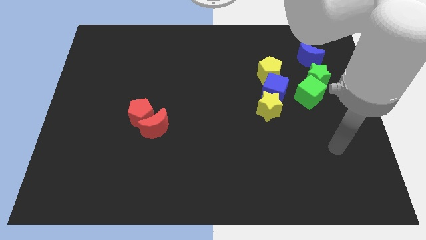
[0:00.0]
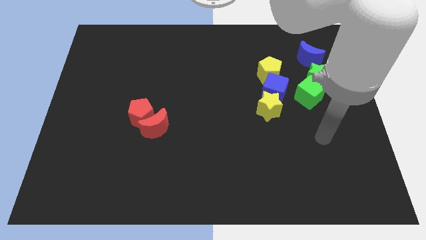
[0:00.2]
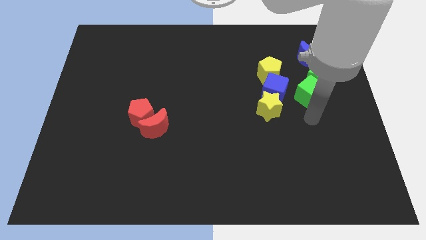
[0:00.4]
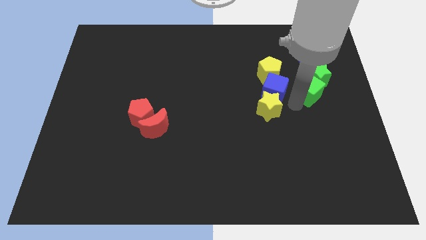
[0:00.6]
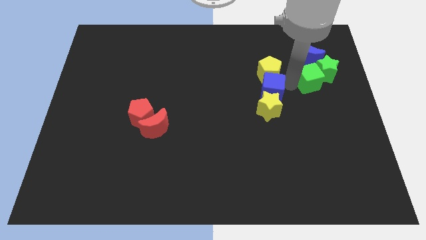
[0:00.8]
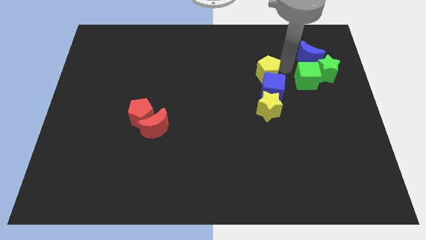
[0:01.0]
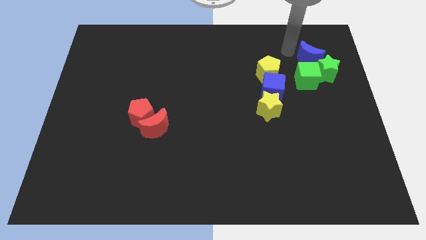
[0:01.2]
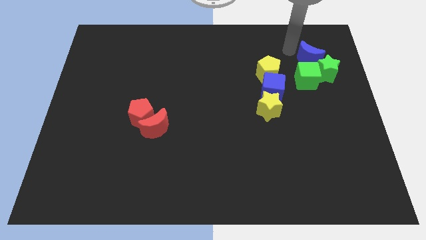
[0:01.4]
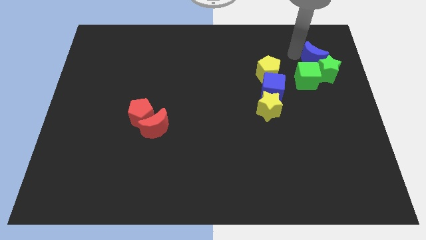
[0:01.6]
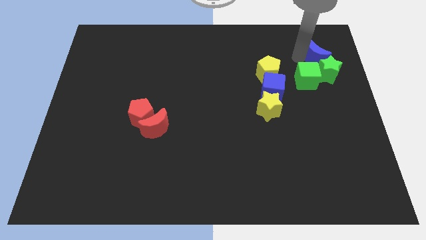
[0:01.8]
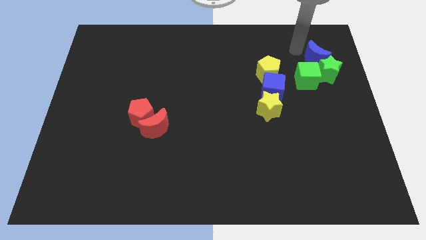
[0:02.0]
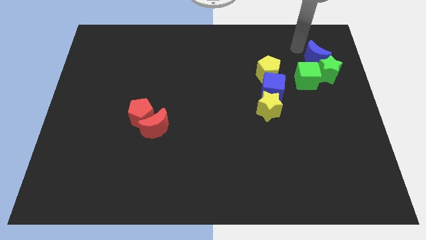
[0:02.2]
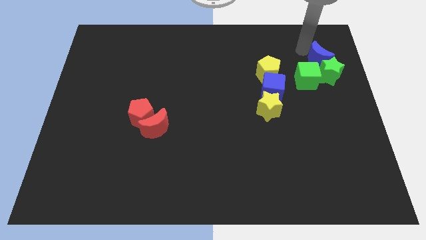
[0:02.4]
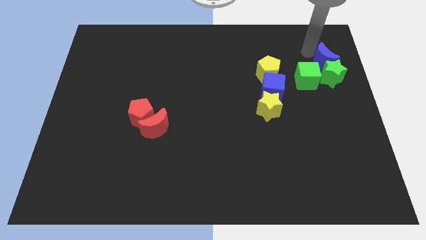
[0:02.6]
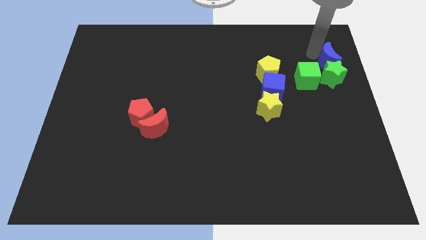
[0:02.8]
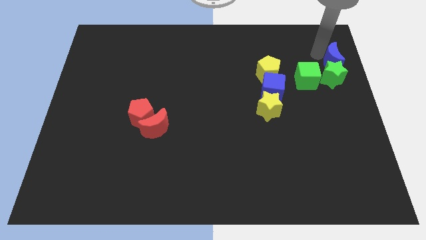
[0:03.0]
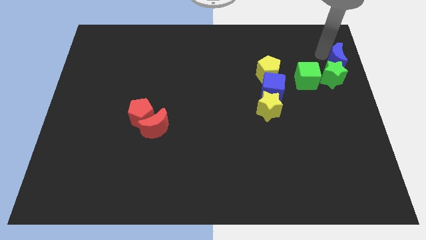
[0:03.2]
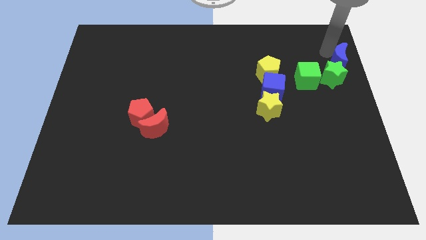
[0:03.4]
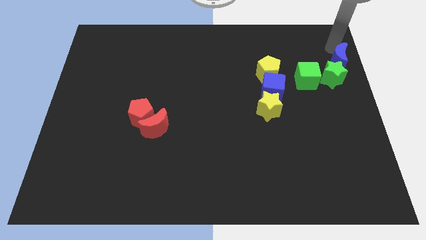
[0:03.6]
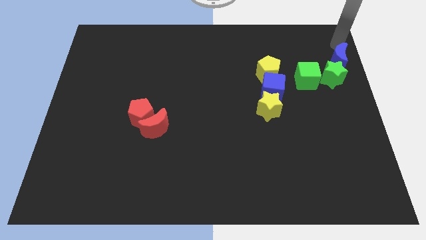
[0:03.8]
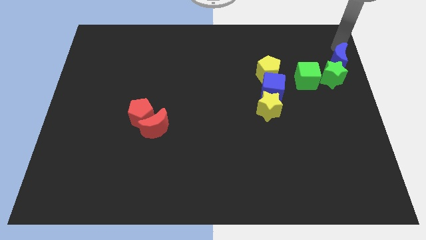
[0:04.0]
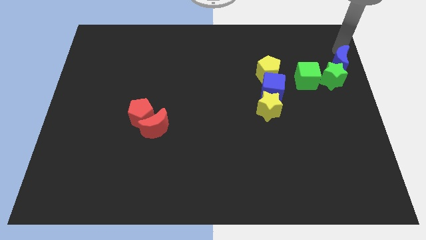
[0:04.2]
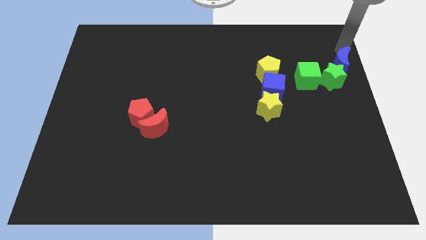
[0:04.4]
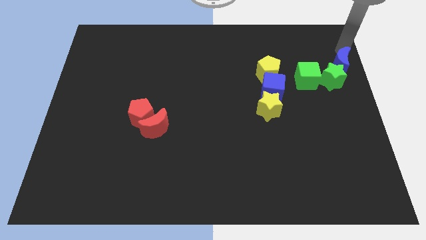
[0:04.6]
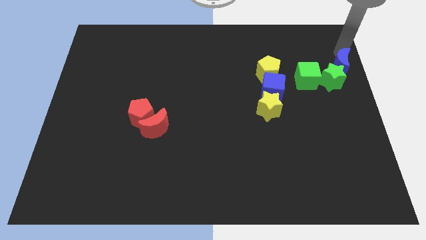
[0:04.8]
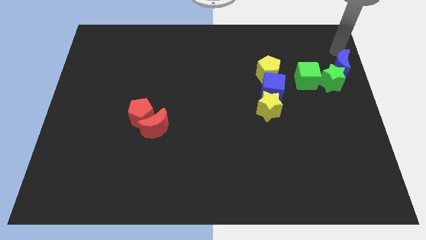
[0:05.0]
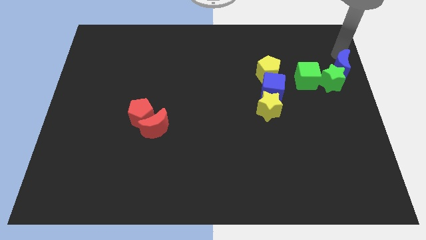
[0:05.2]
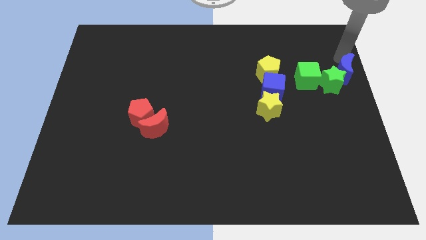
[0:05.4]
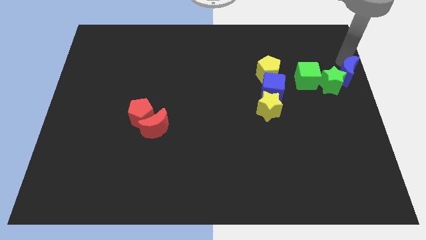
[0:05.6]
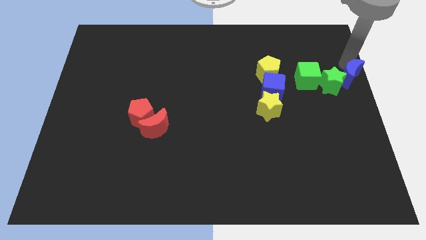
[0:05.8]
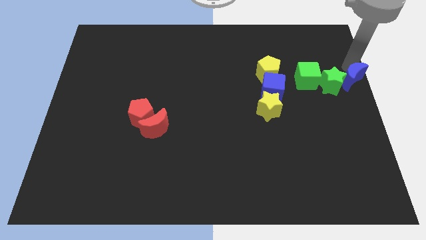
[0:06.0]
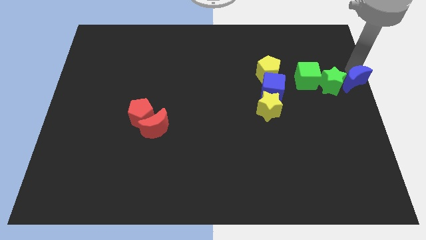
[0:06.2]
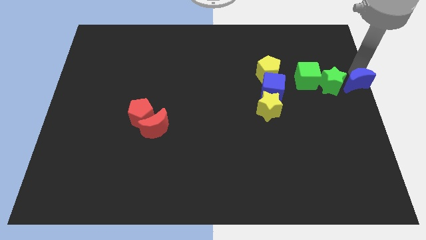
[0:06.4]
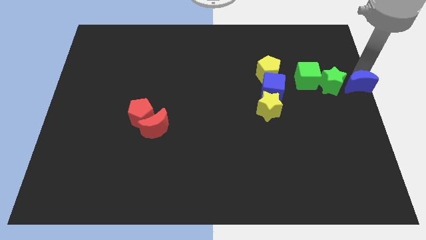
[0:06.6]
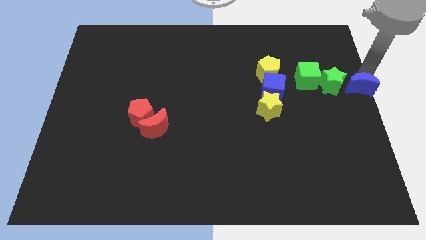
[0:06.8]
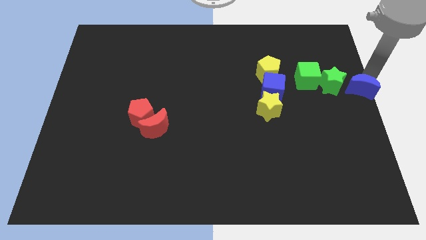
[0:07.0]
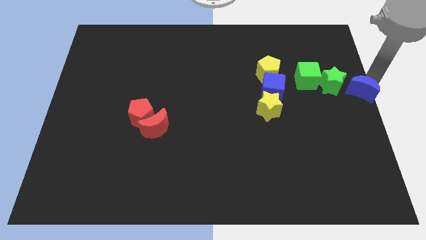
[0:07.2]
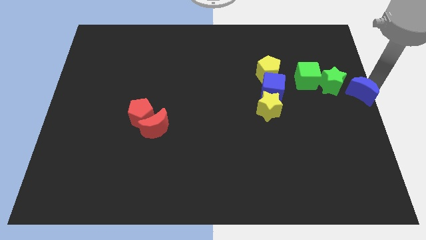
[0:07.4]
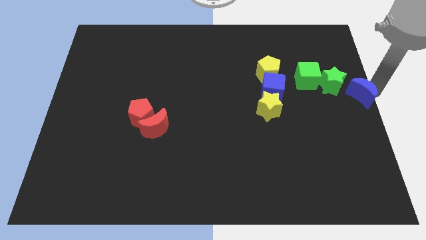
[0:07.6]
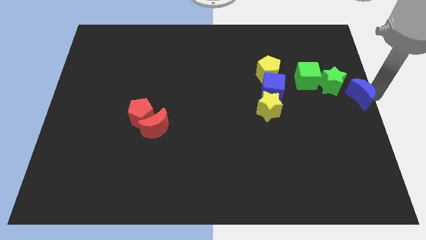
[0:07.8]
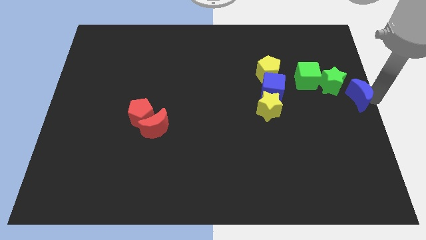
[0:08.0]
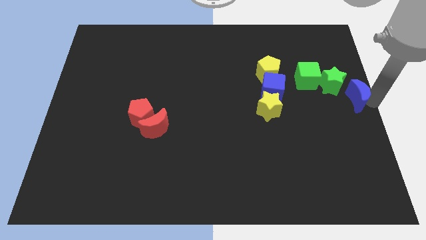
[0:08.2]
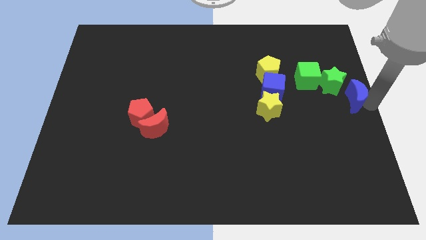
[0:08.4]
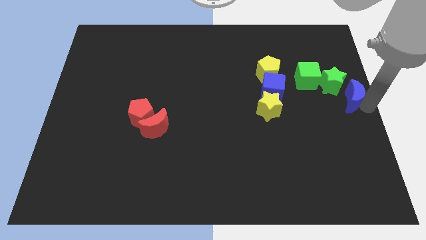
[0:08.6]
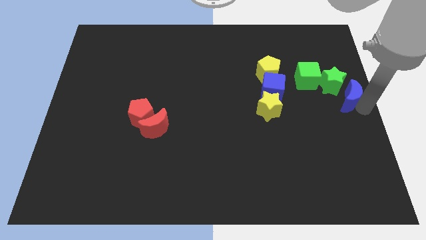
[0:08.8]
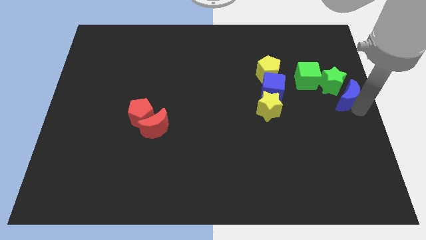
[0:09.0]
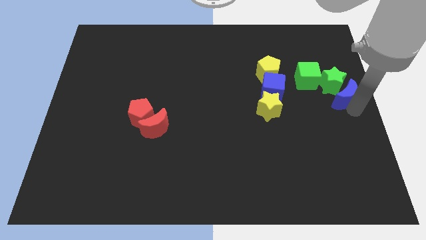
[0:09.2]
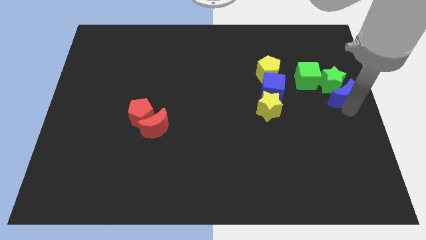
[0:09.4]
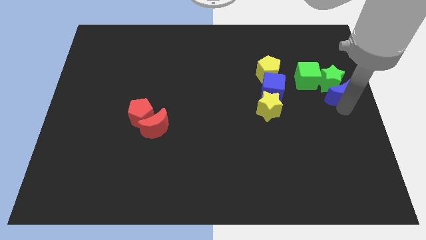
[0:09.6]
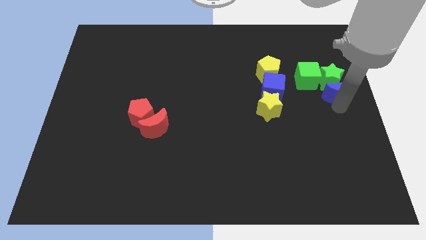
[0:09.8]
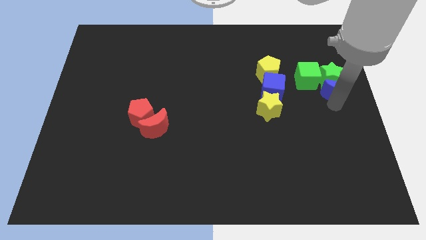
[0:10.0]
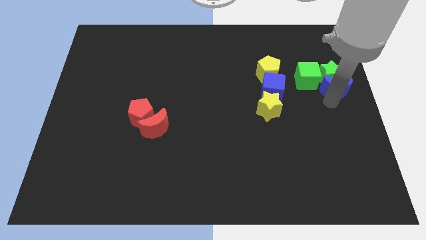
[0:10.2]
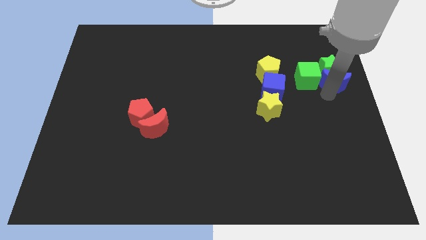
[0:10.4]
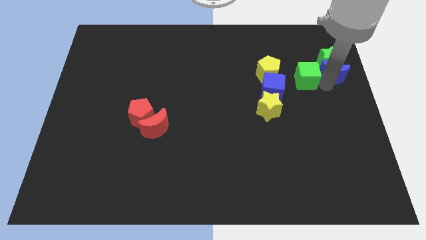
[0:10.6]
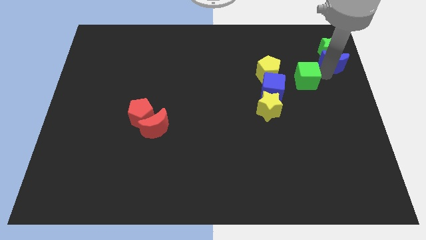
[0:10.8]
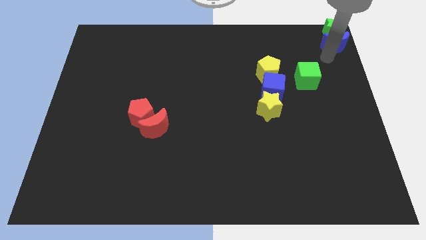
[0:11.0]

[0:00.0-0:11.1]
move the blue moon to the top right of the board

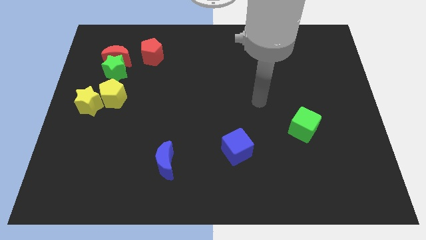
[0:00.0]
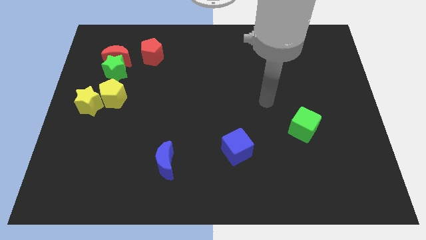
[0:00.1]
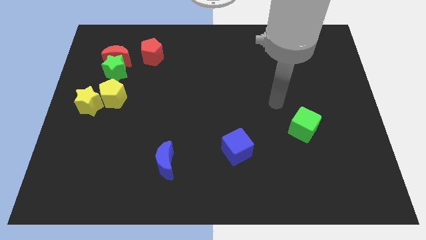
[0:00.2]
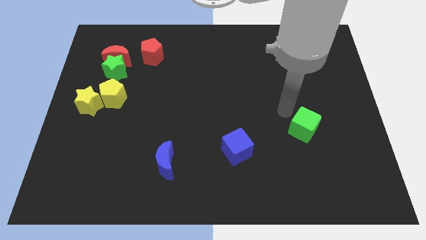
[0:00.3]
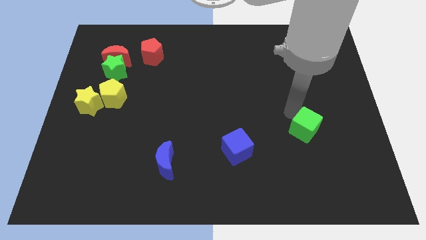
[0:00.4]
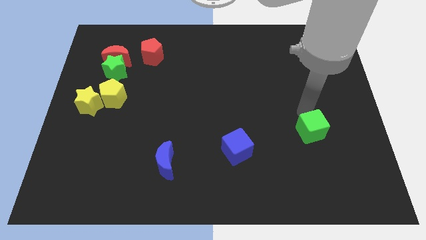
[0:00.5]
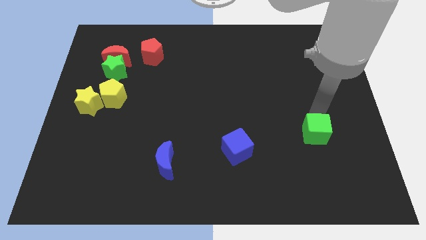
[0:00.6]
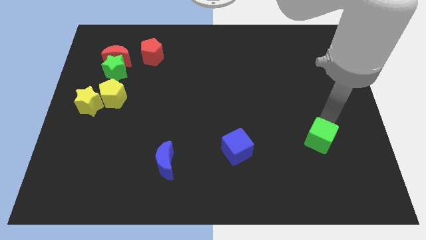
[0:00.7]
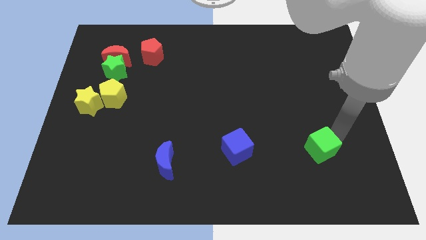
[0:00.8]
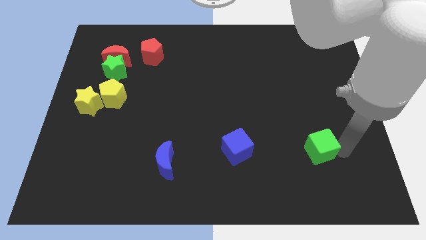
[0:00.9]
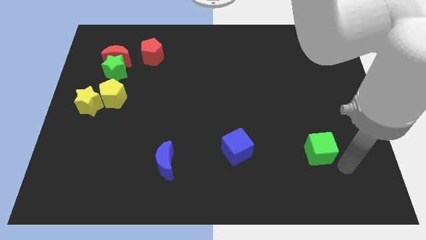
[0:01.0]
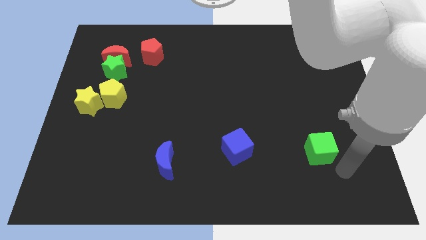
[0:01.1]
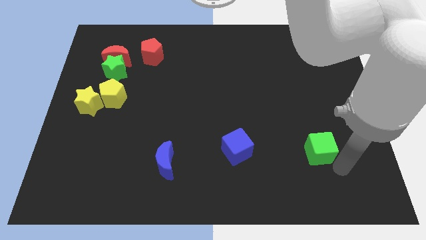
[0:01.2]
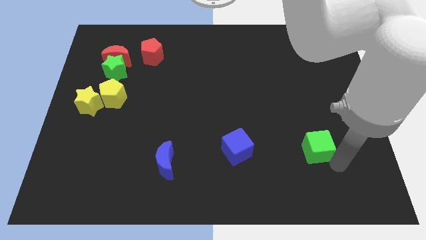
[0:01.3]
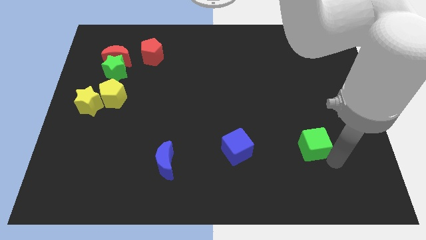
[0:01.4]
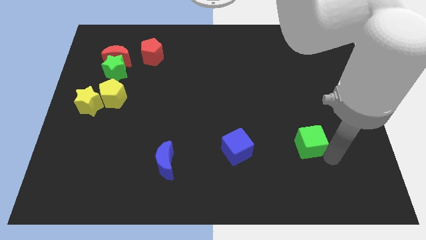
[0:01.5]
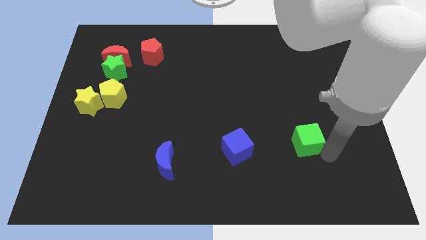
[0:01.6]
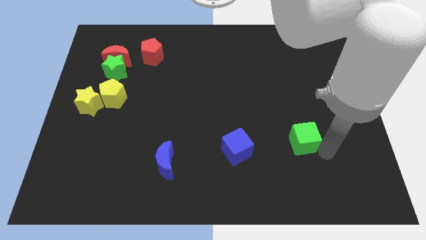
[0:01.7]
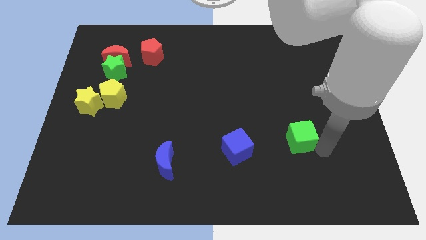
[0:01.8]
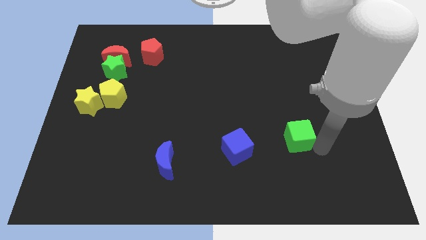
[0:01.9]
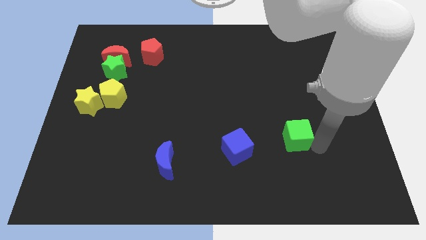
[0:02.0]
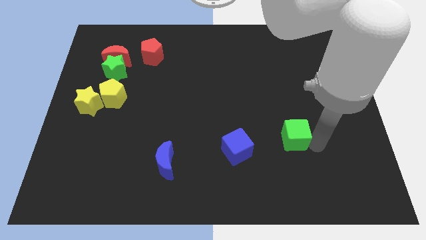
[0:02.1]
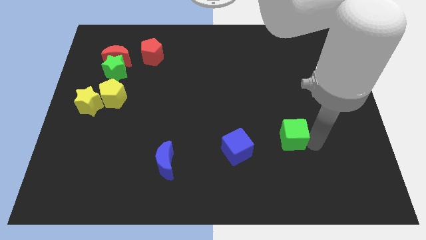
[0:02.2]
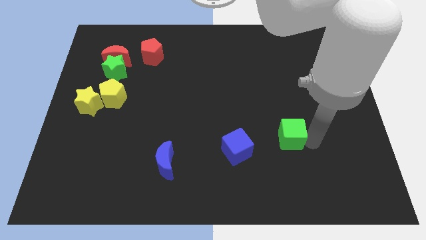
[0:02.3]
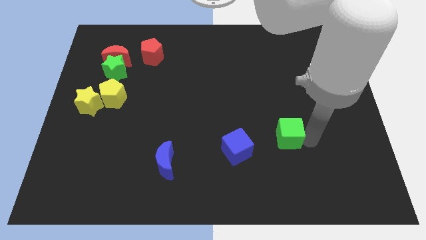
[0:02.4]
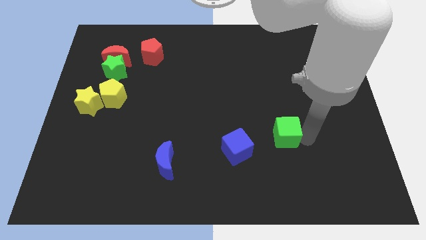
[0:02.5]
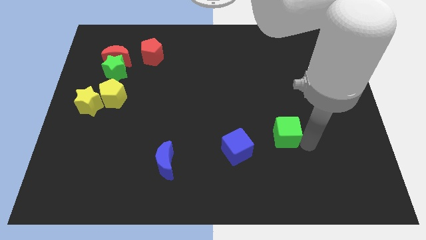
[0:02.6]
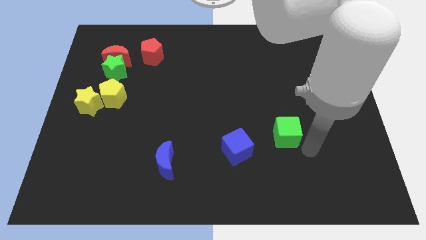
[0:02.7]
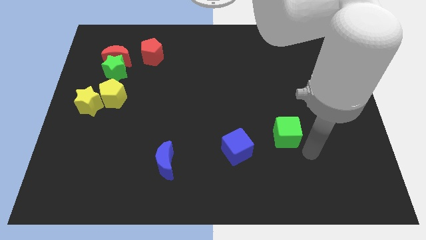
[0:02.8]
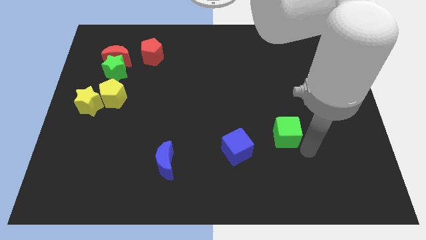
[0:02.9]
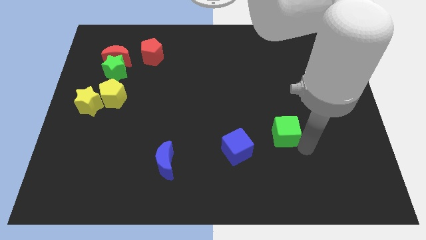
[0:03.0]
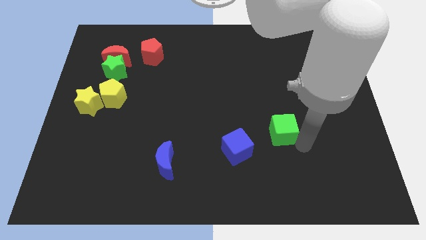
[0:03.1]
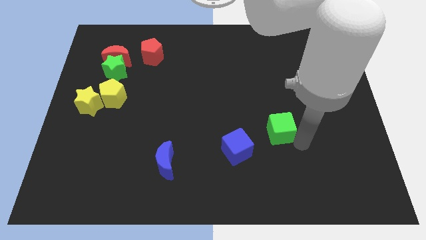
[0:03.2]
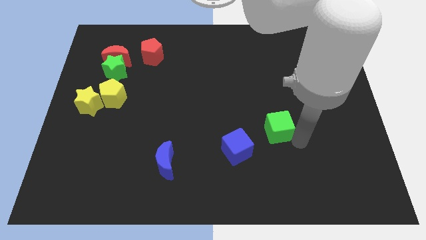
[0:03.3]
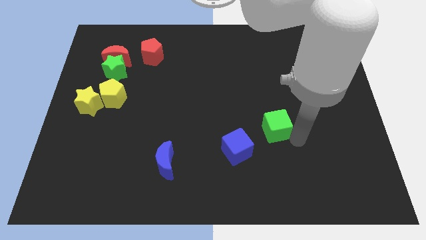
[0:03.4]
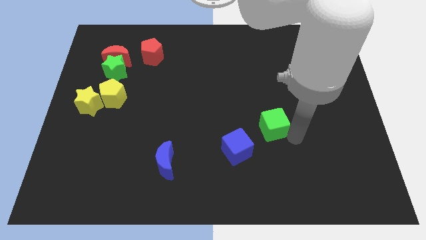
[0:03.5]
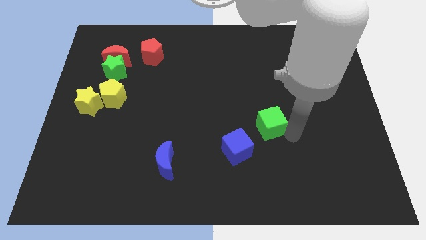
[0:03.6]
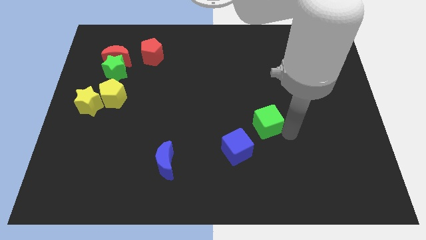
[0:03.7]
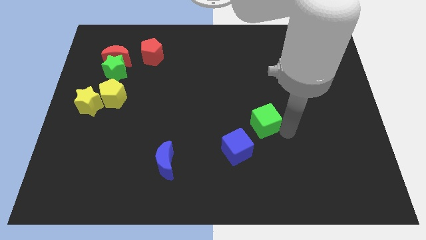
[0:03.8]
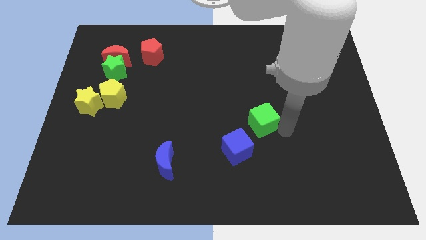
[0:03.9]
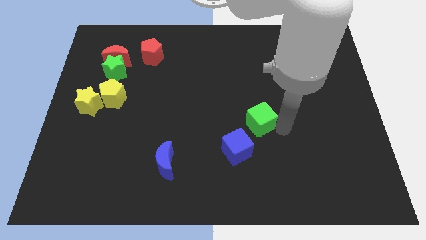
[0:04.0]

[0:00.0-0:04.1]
slide the green cube to the middle
